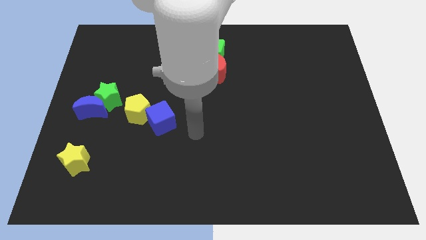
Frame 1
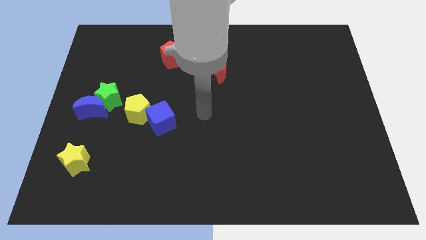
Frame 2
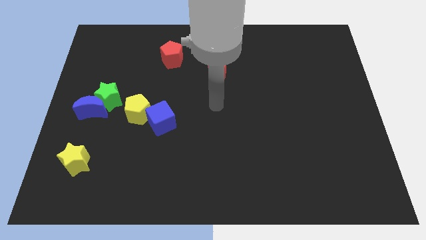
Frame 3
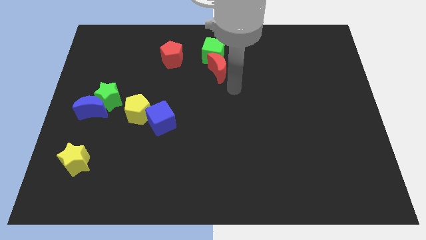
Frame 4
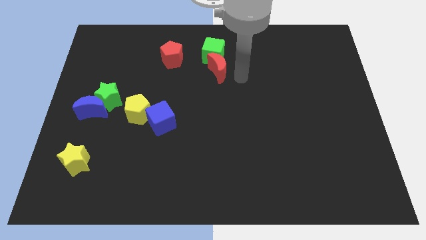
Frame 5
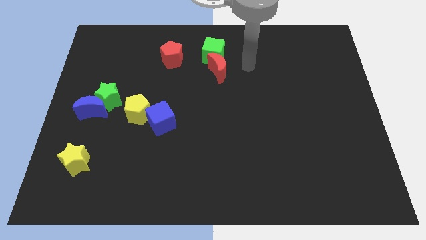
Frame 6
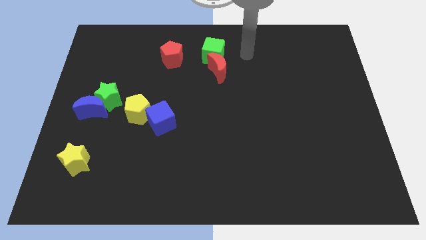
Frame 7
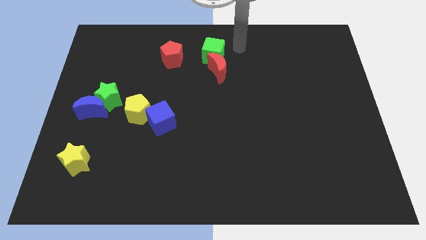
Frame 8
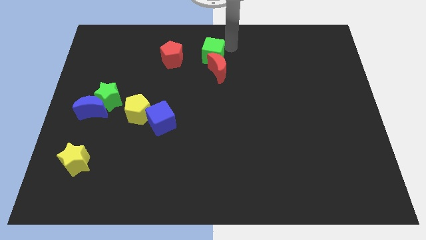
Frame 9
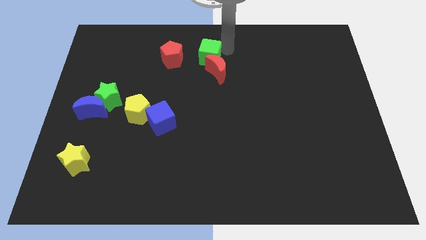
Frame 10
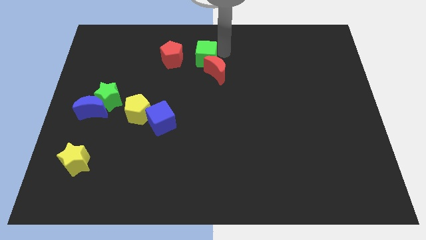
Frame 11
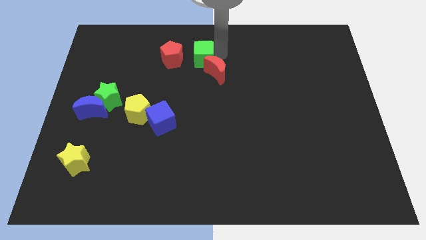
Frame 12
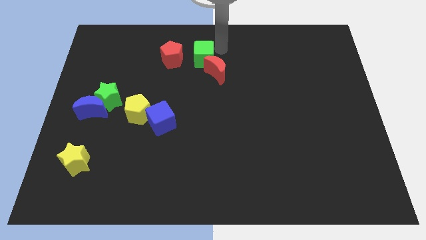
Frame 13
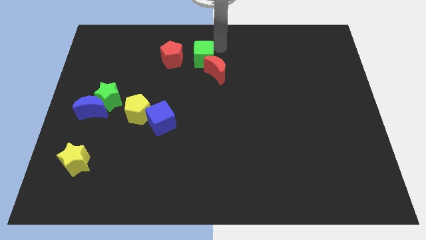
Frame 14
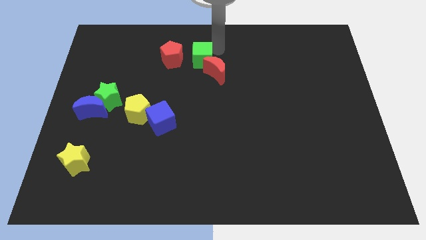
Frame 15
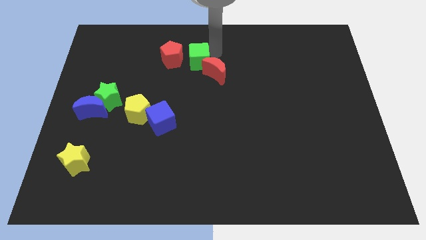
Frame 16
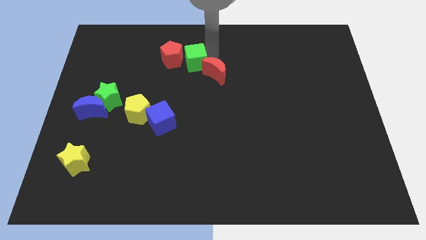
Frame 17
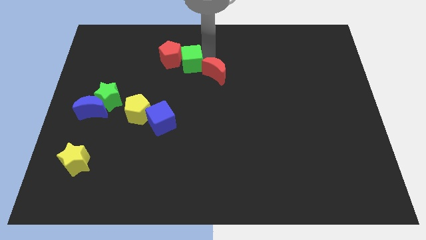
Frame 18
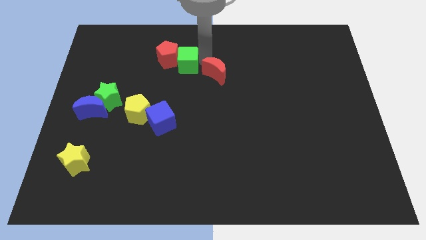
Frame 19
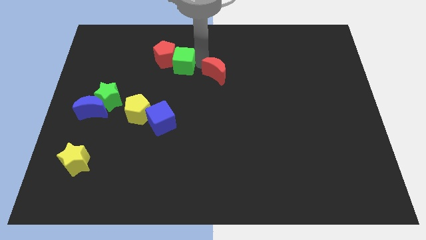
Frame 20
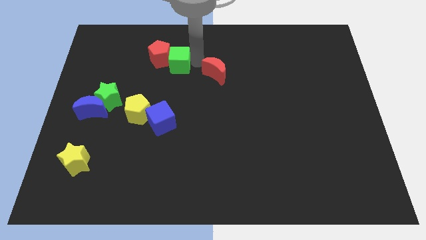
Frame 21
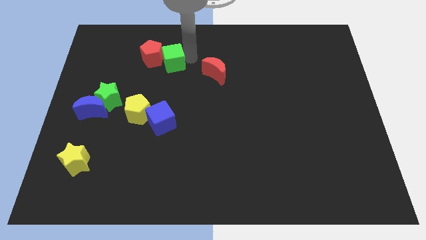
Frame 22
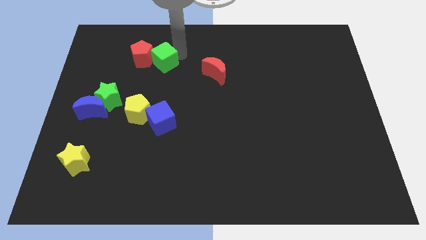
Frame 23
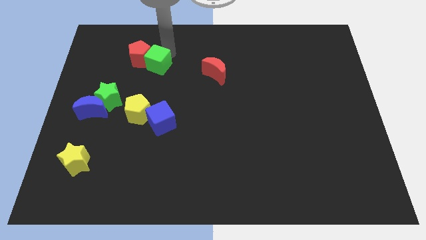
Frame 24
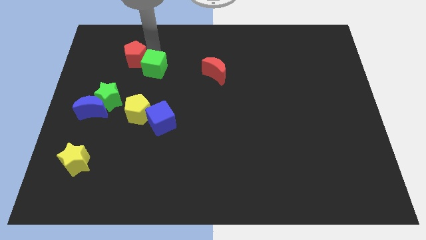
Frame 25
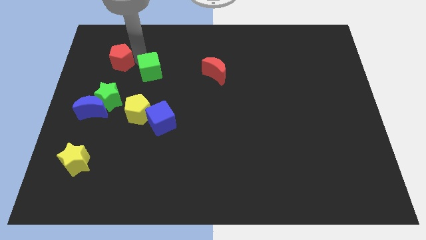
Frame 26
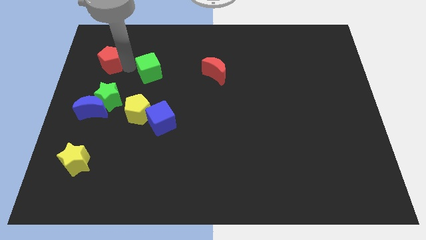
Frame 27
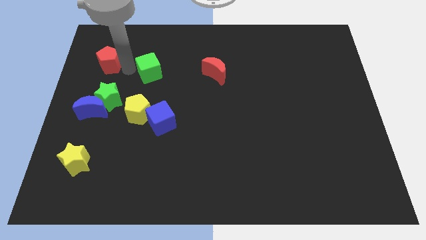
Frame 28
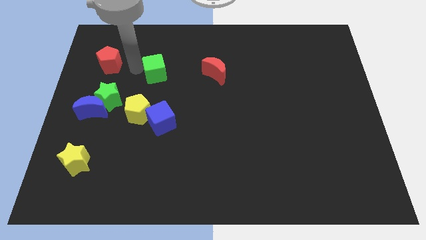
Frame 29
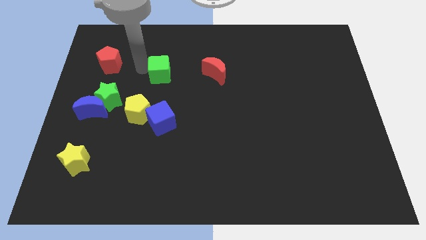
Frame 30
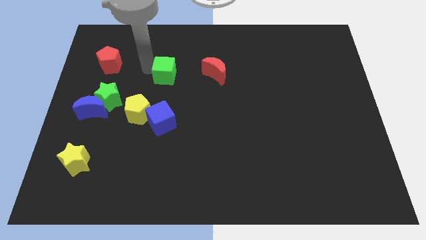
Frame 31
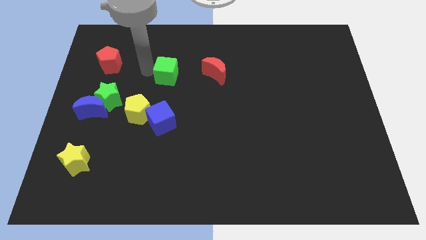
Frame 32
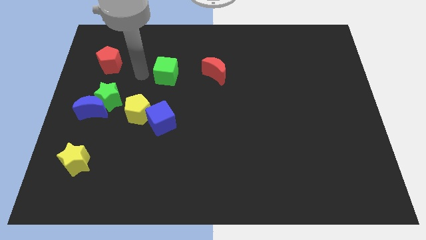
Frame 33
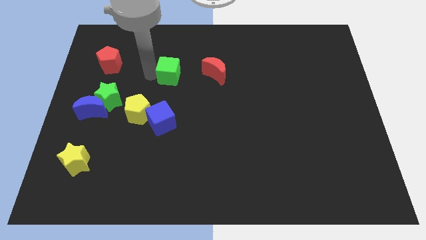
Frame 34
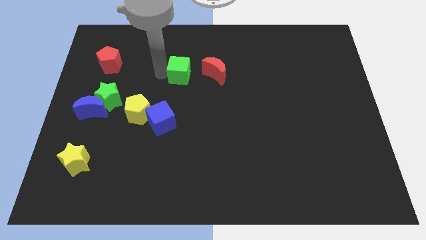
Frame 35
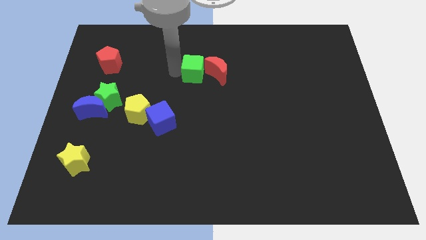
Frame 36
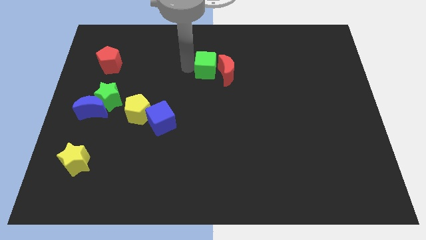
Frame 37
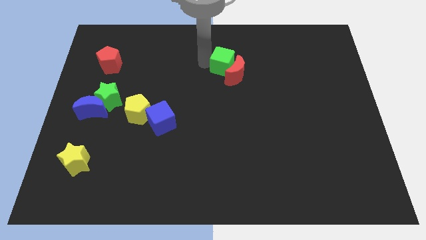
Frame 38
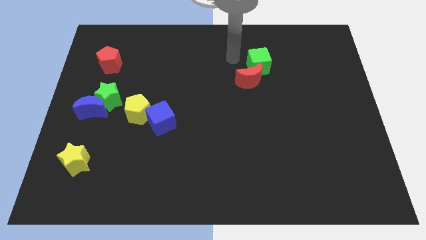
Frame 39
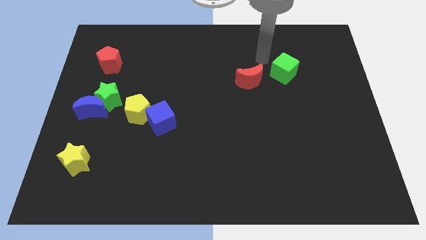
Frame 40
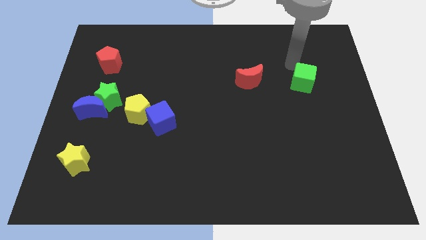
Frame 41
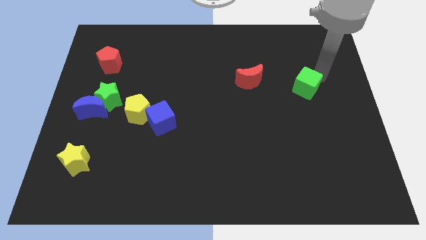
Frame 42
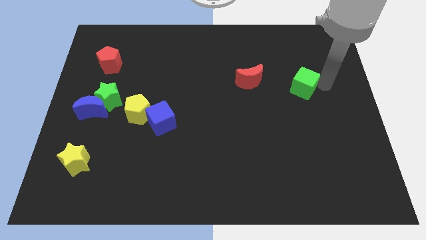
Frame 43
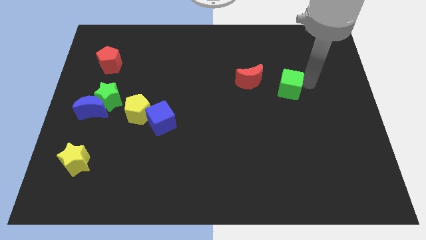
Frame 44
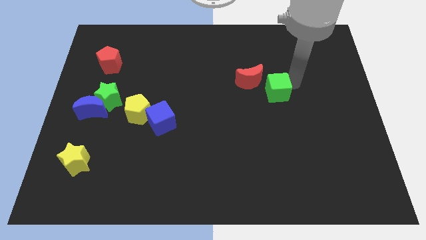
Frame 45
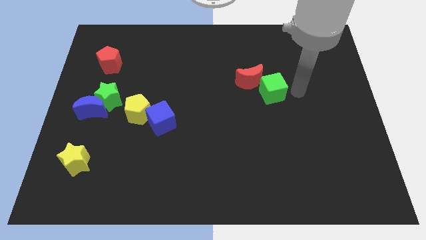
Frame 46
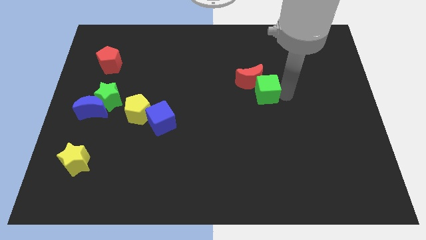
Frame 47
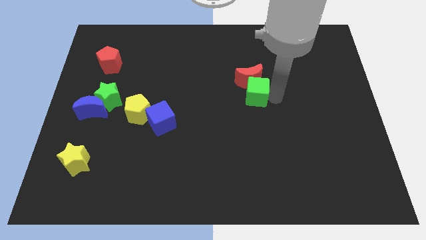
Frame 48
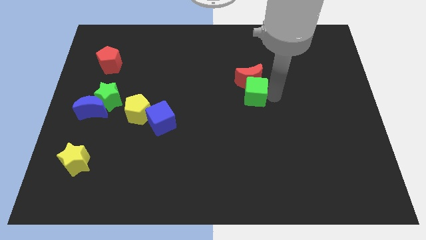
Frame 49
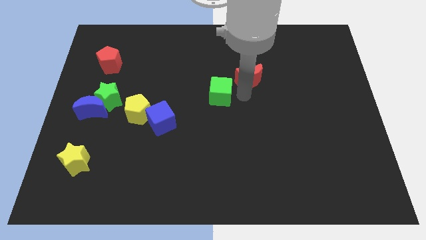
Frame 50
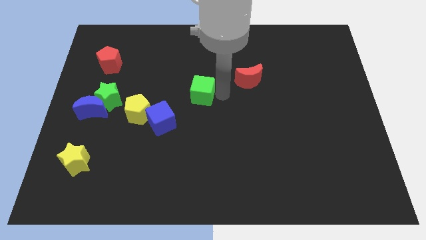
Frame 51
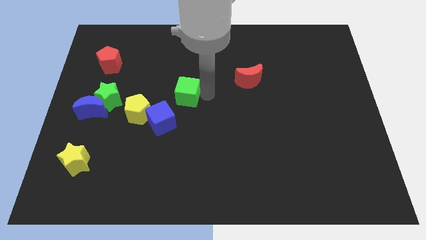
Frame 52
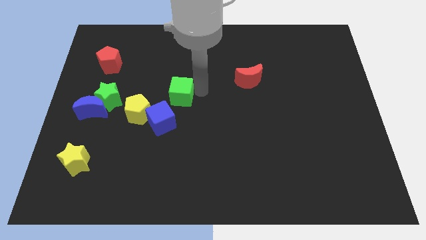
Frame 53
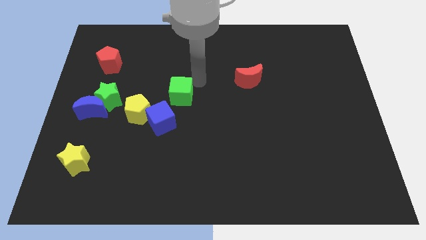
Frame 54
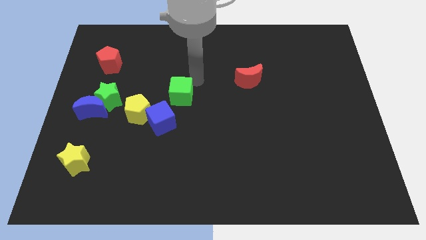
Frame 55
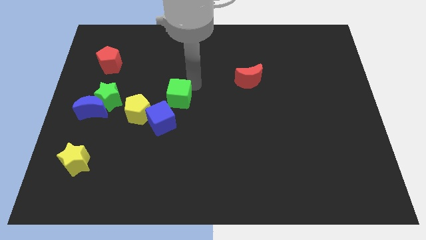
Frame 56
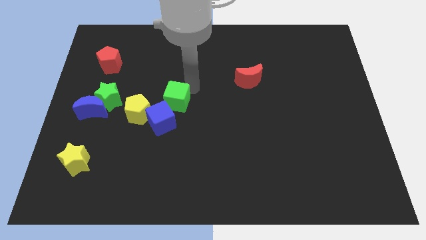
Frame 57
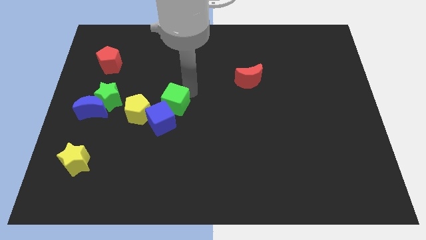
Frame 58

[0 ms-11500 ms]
put the green cube close to the blue cube

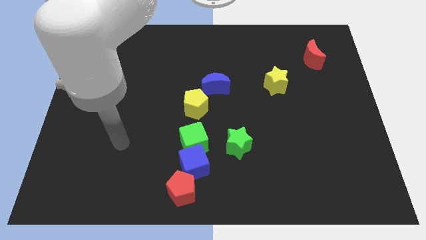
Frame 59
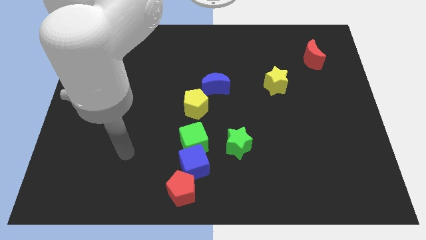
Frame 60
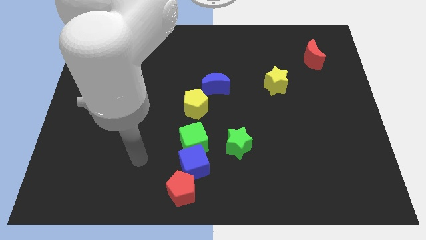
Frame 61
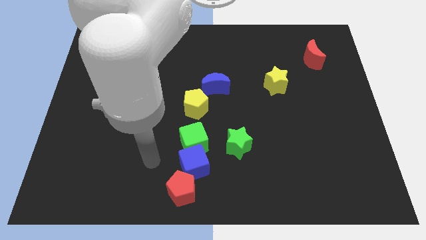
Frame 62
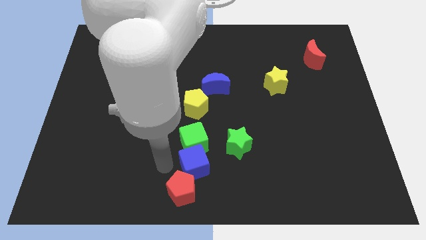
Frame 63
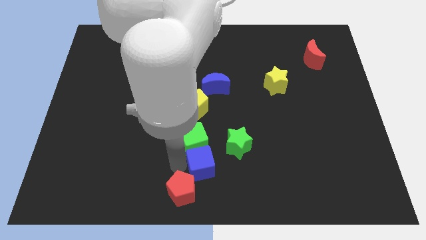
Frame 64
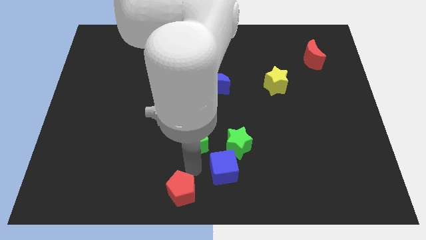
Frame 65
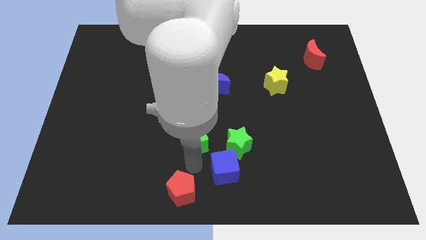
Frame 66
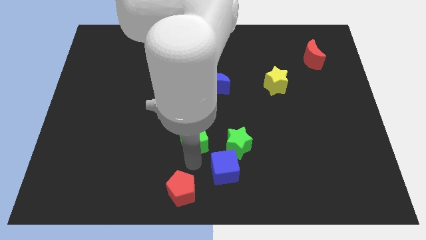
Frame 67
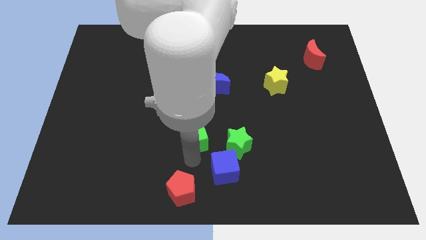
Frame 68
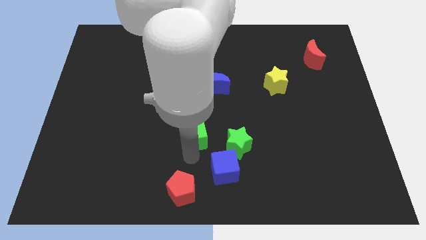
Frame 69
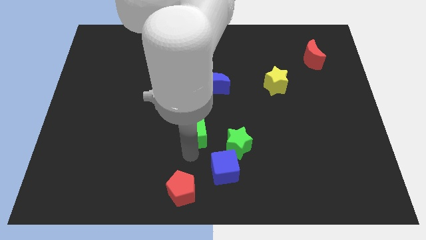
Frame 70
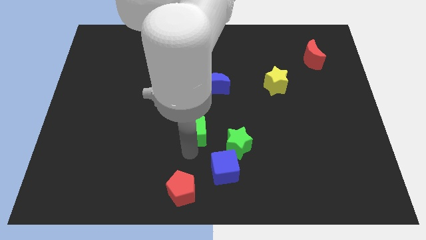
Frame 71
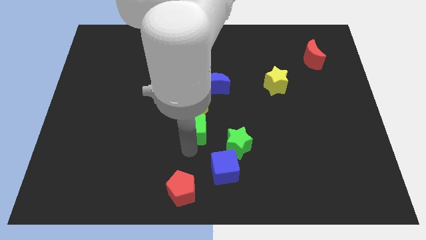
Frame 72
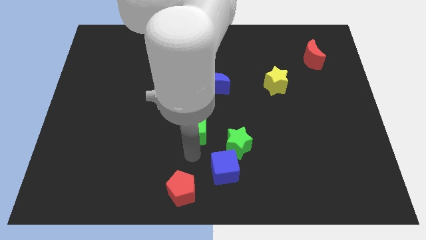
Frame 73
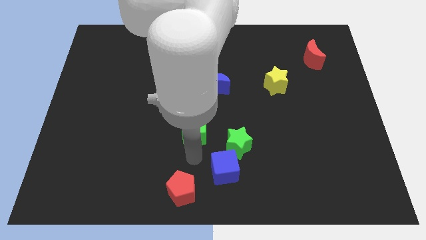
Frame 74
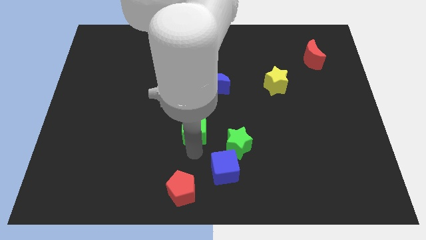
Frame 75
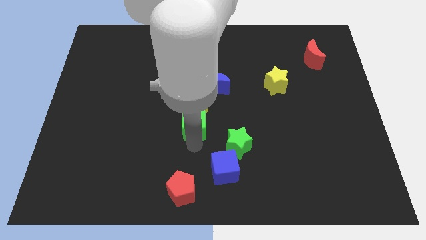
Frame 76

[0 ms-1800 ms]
put the green cube to the yellow pentagon
